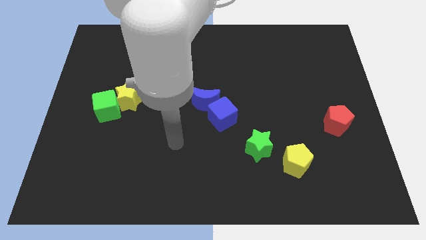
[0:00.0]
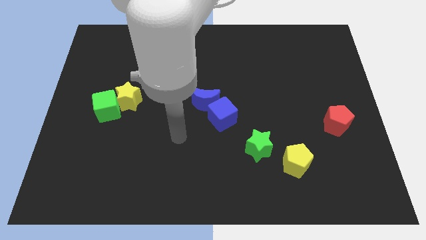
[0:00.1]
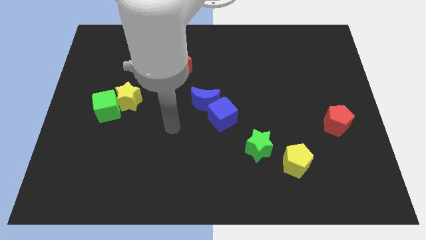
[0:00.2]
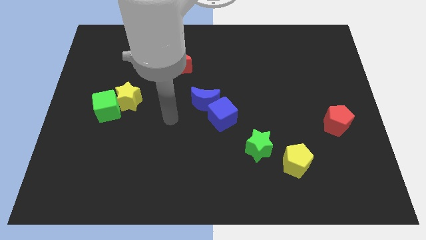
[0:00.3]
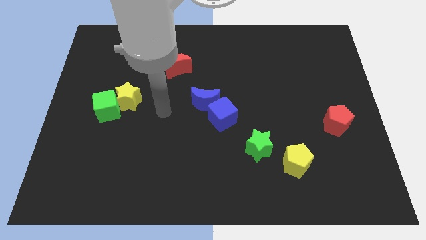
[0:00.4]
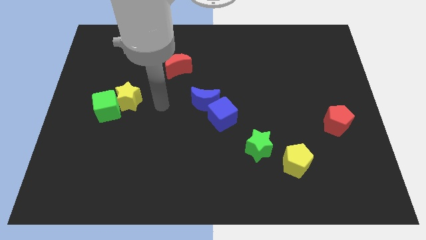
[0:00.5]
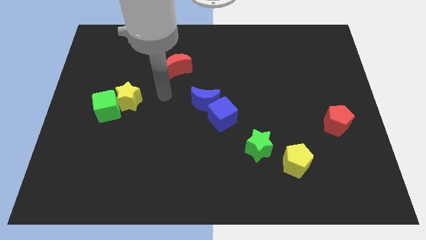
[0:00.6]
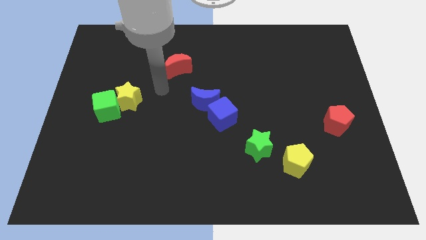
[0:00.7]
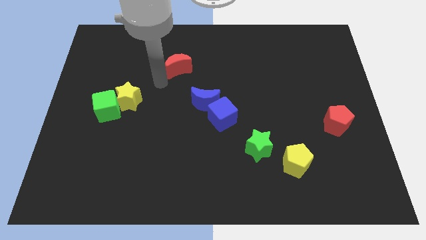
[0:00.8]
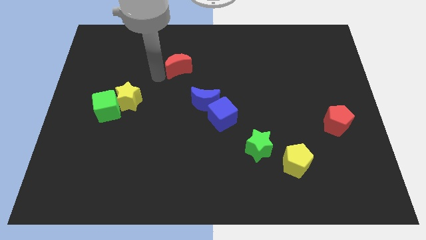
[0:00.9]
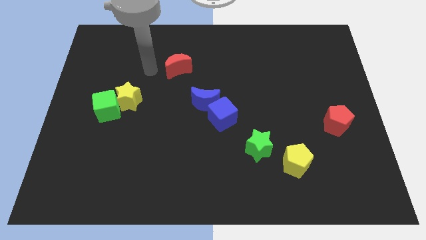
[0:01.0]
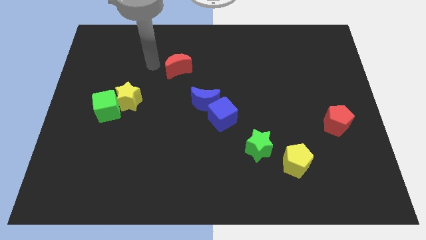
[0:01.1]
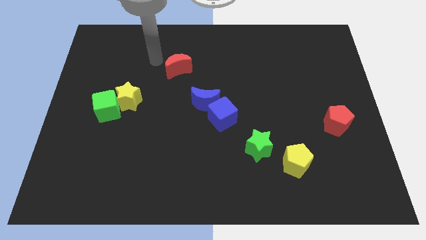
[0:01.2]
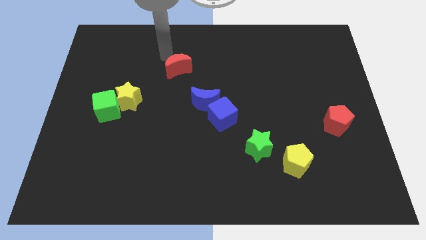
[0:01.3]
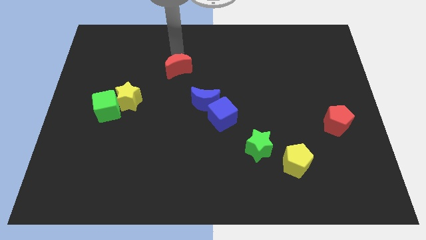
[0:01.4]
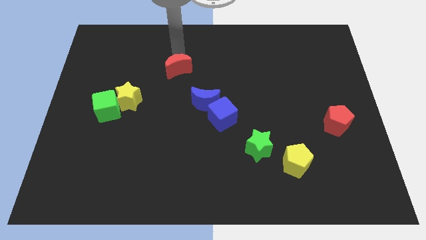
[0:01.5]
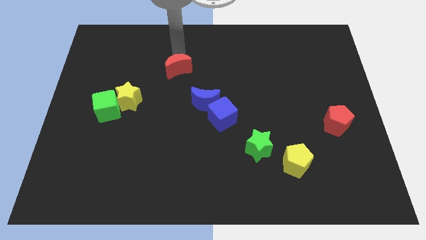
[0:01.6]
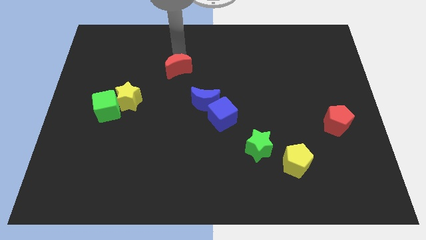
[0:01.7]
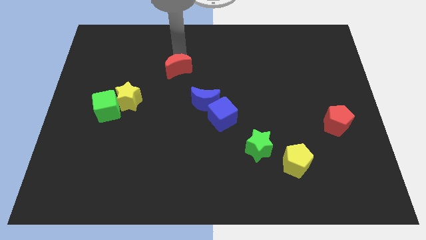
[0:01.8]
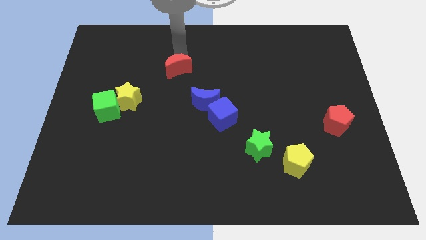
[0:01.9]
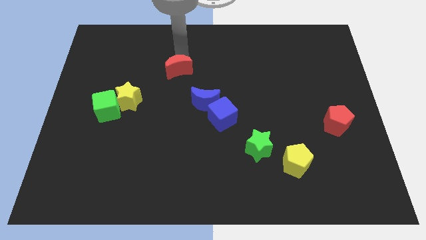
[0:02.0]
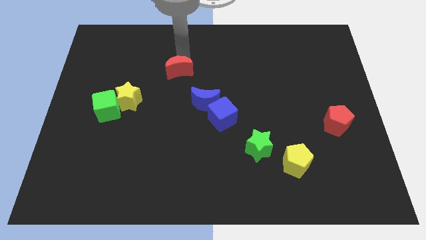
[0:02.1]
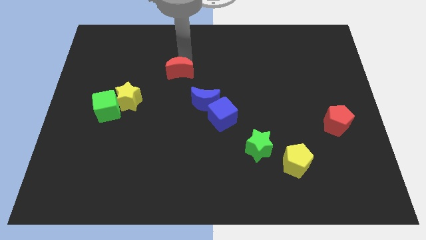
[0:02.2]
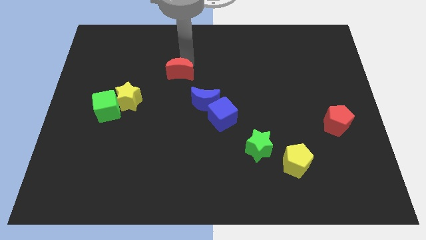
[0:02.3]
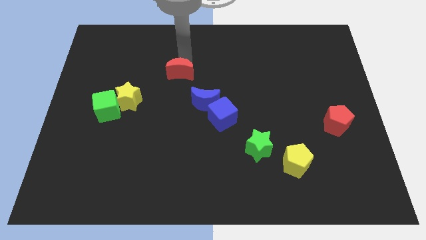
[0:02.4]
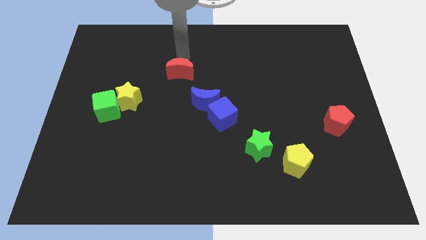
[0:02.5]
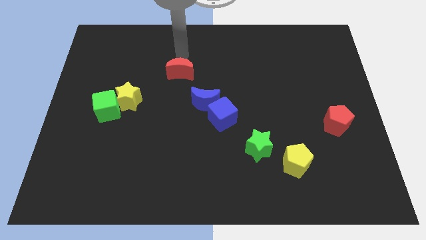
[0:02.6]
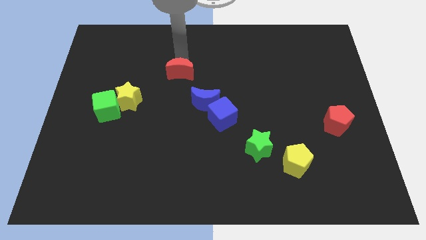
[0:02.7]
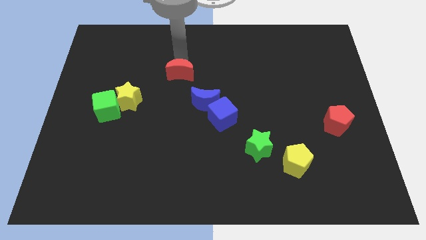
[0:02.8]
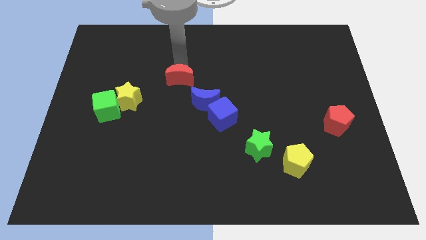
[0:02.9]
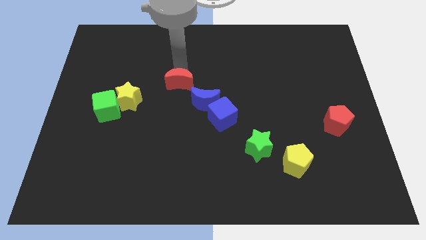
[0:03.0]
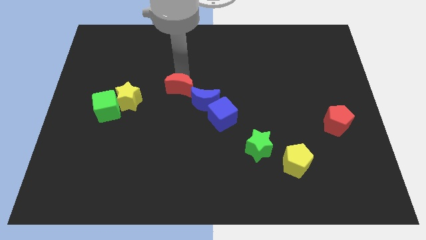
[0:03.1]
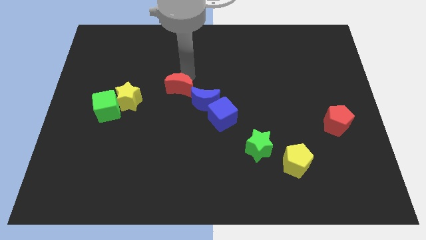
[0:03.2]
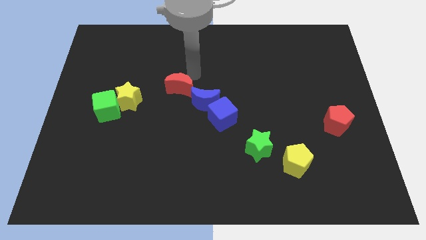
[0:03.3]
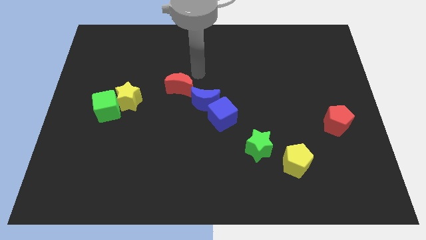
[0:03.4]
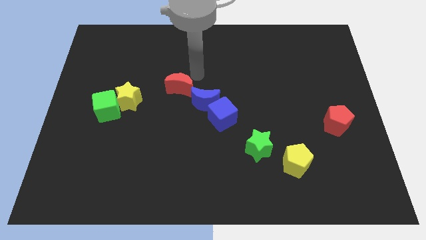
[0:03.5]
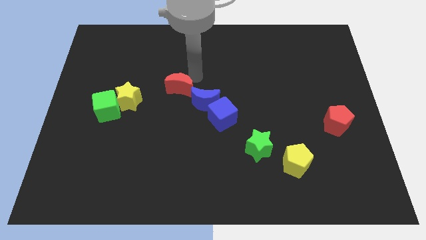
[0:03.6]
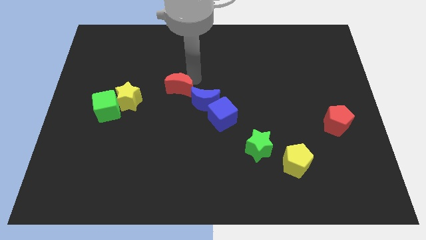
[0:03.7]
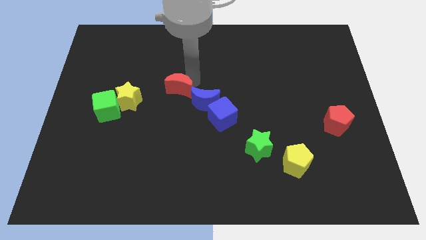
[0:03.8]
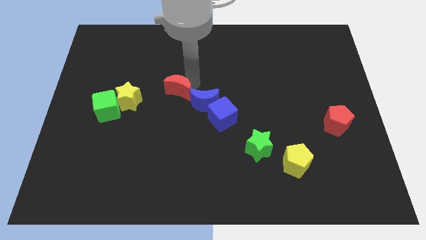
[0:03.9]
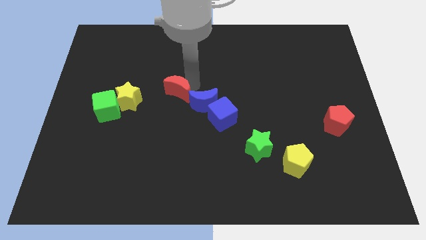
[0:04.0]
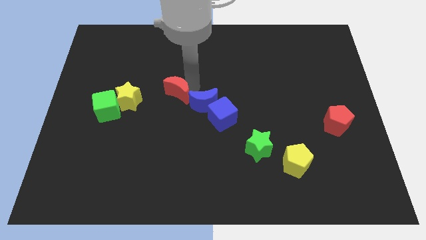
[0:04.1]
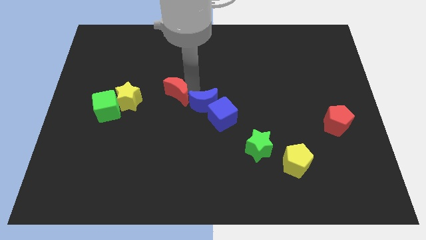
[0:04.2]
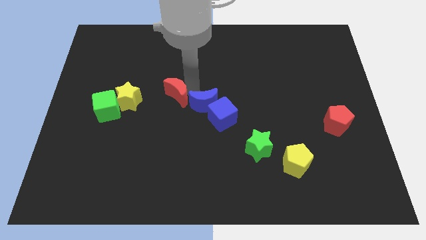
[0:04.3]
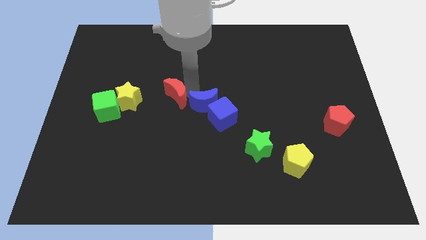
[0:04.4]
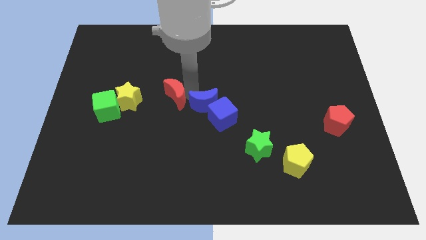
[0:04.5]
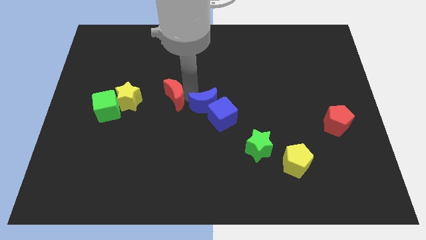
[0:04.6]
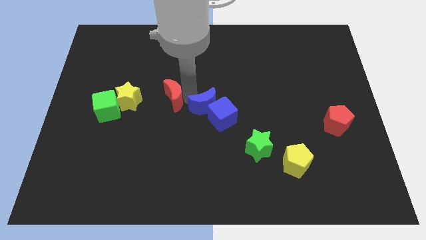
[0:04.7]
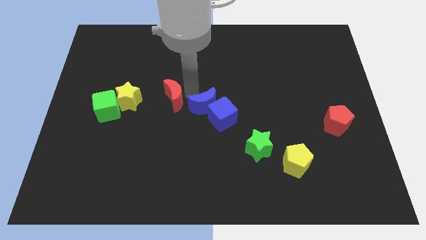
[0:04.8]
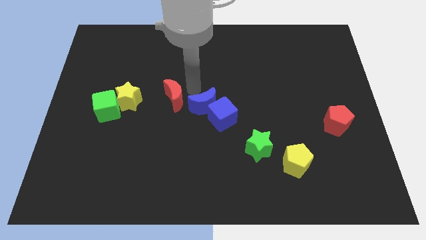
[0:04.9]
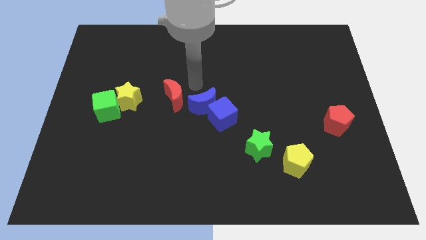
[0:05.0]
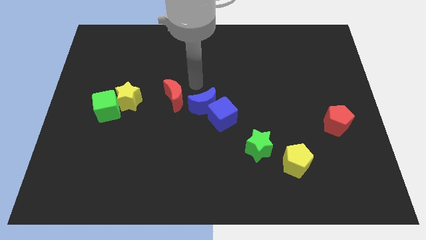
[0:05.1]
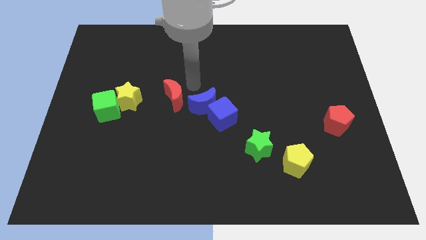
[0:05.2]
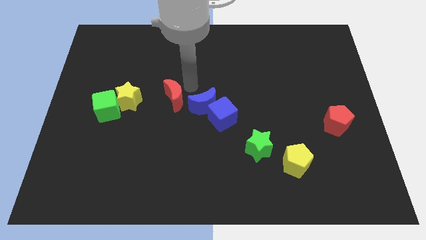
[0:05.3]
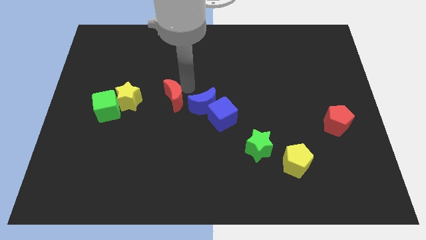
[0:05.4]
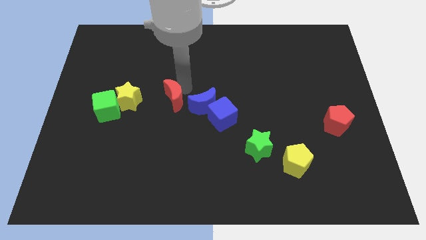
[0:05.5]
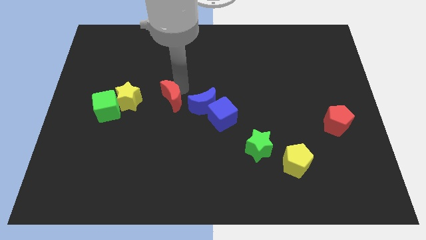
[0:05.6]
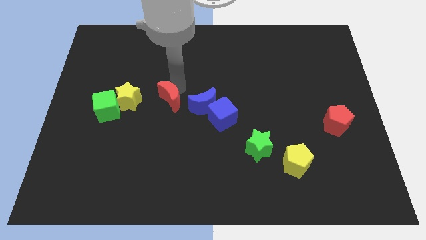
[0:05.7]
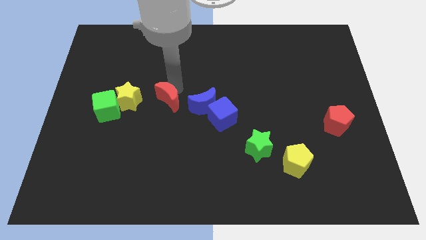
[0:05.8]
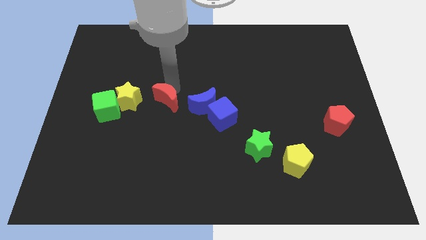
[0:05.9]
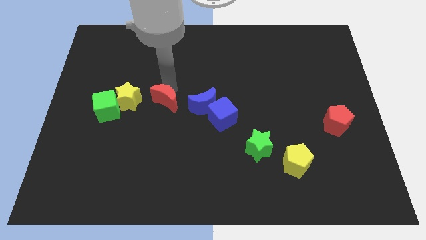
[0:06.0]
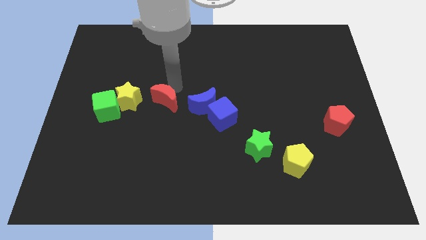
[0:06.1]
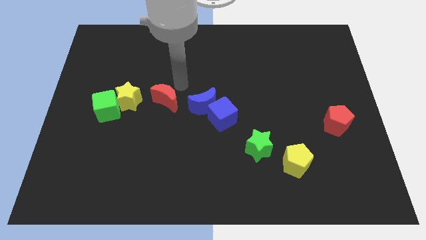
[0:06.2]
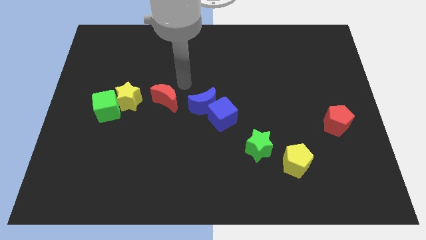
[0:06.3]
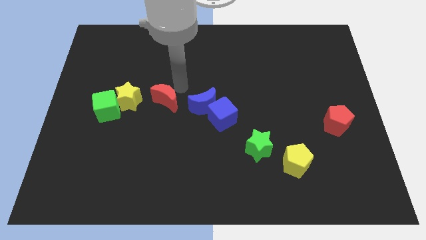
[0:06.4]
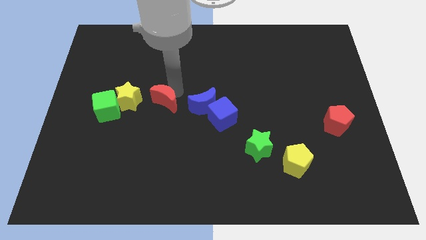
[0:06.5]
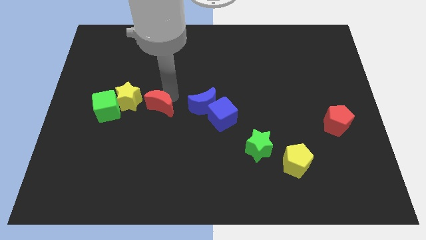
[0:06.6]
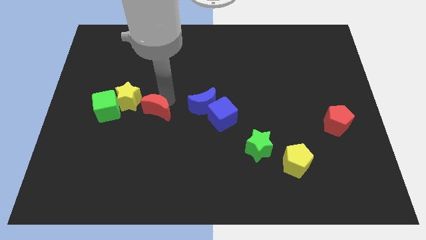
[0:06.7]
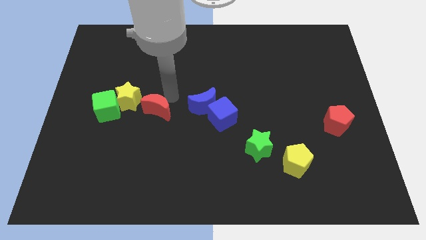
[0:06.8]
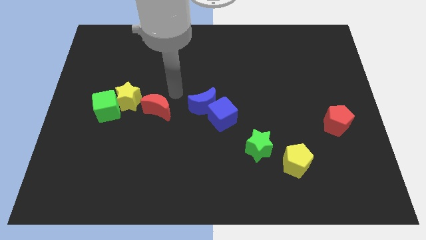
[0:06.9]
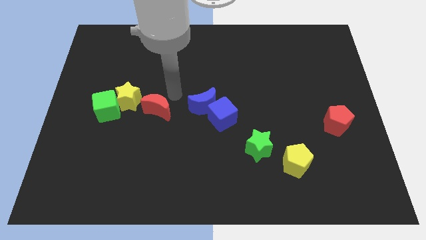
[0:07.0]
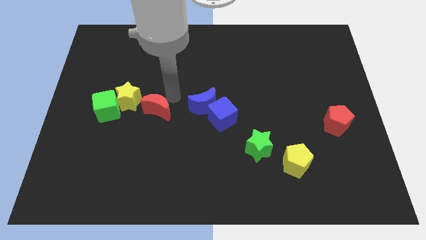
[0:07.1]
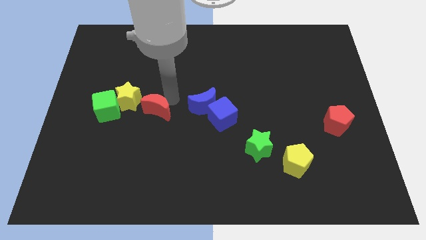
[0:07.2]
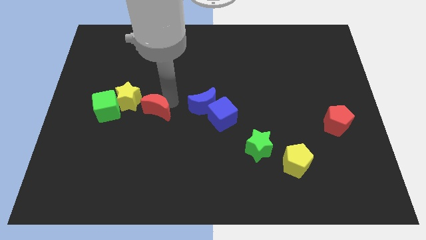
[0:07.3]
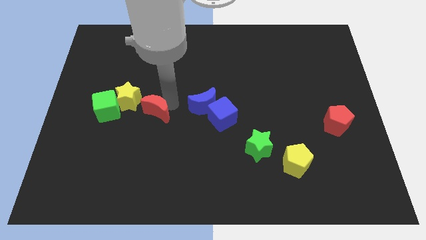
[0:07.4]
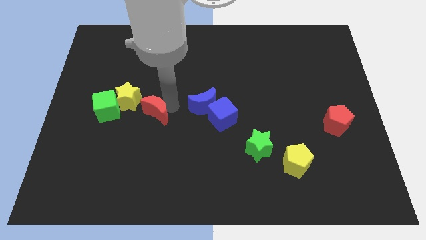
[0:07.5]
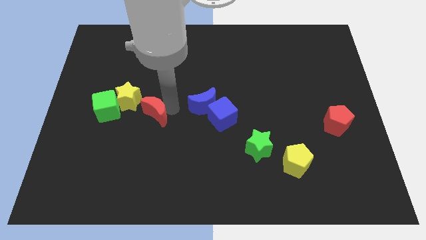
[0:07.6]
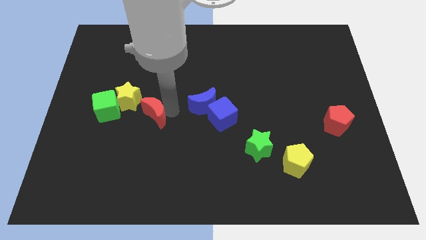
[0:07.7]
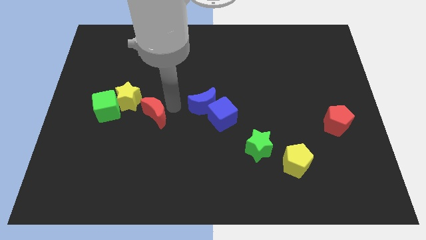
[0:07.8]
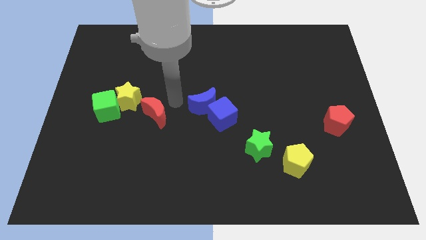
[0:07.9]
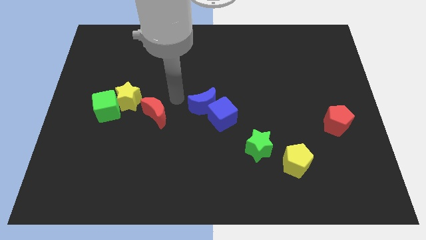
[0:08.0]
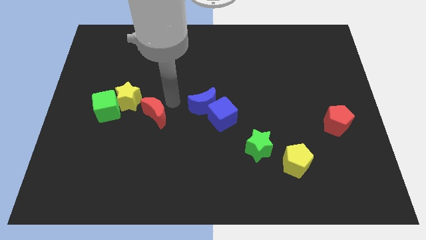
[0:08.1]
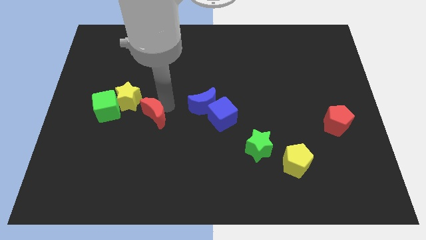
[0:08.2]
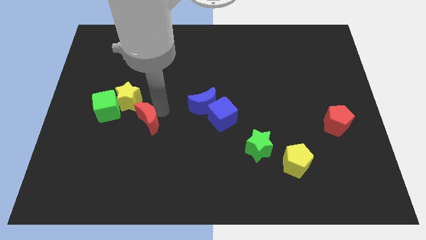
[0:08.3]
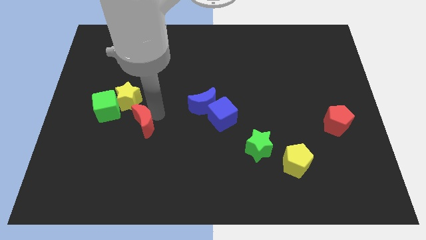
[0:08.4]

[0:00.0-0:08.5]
move the red moon to the bottom of the yellow star
